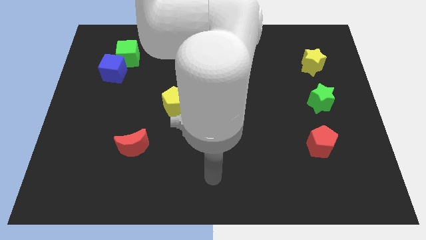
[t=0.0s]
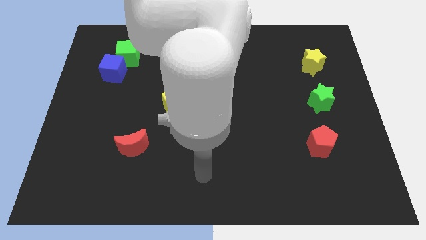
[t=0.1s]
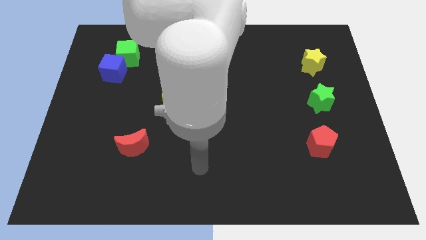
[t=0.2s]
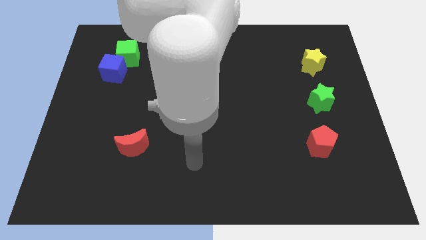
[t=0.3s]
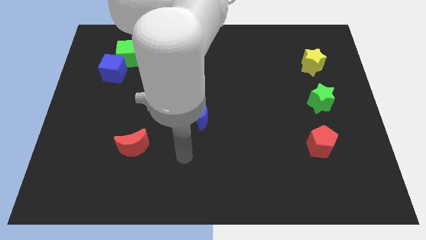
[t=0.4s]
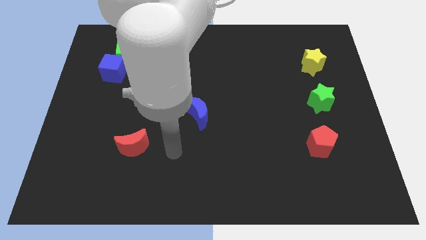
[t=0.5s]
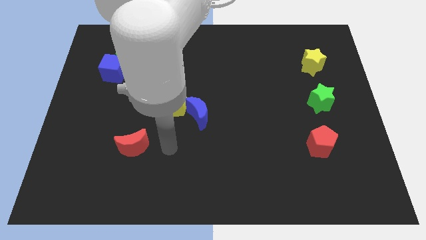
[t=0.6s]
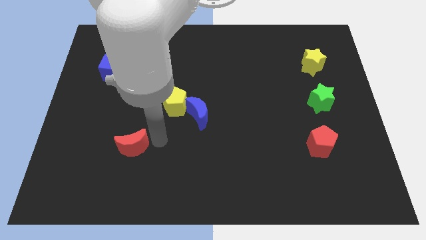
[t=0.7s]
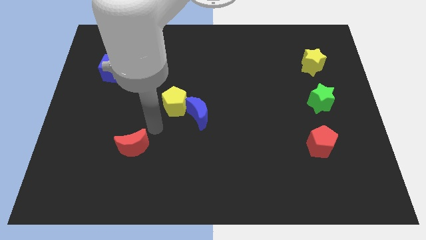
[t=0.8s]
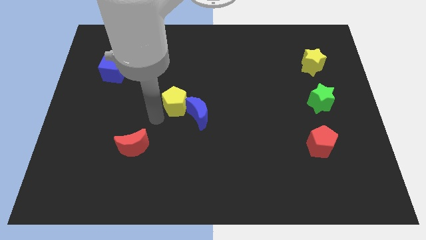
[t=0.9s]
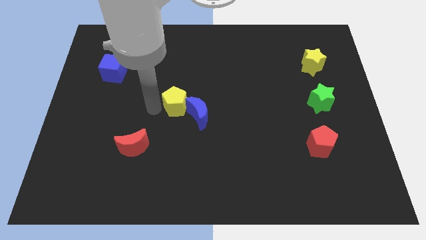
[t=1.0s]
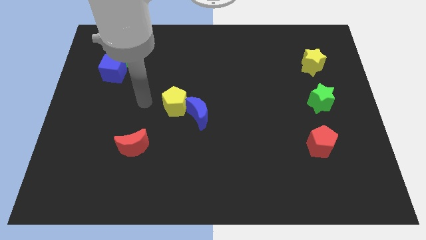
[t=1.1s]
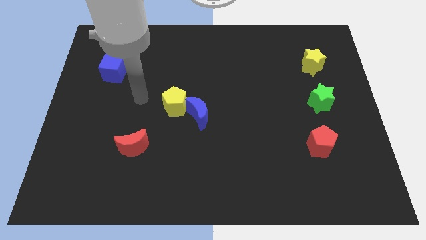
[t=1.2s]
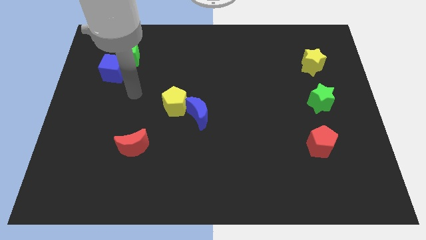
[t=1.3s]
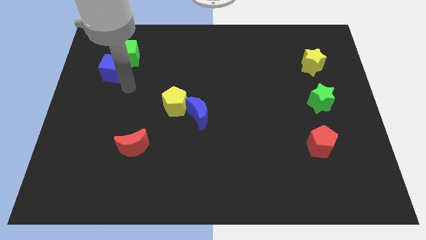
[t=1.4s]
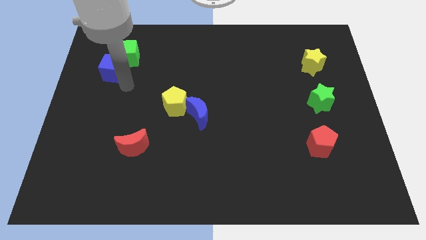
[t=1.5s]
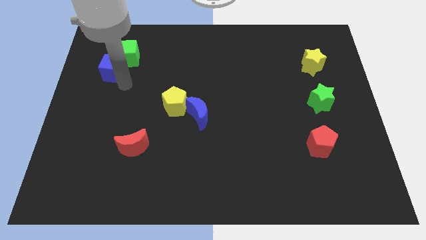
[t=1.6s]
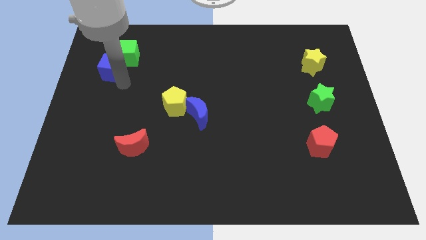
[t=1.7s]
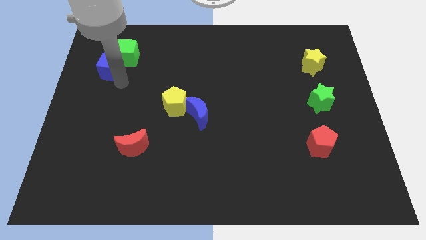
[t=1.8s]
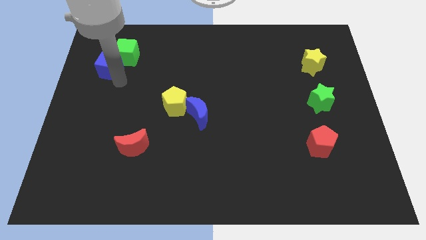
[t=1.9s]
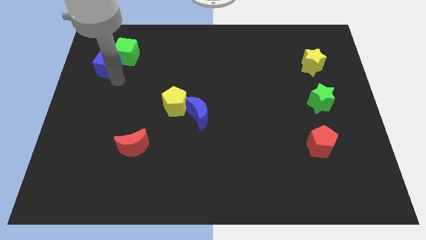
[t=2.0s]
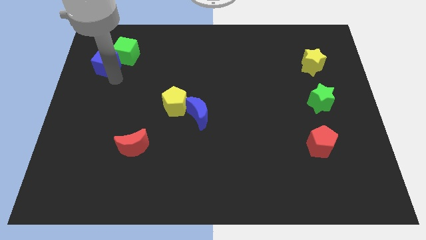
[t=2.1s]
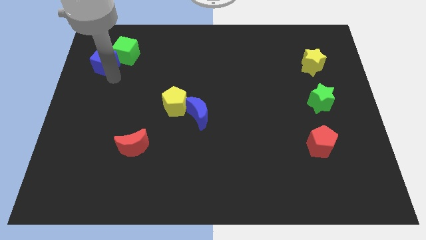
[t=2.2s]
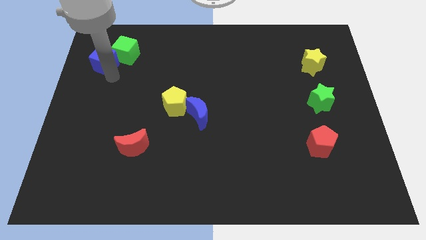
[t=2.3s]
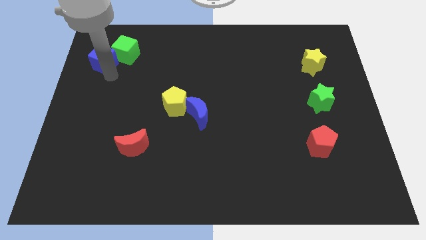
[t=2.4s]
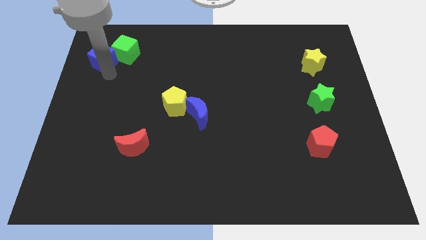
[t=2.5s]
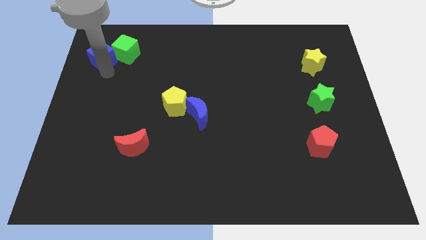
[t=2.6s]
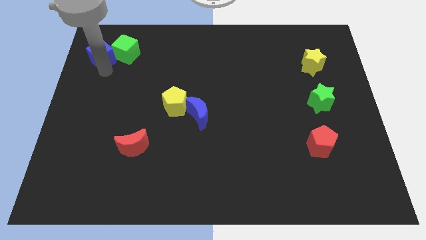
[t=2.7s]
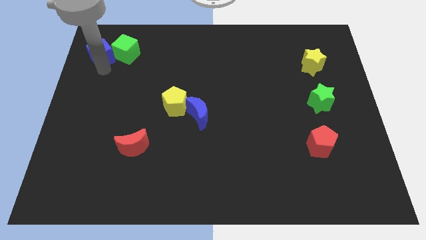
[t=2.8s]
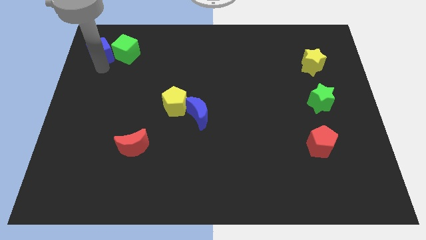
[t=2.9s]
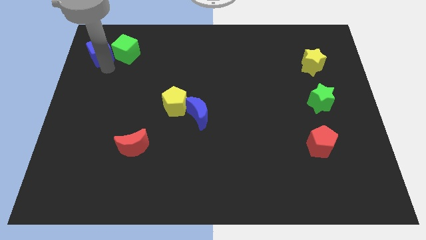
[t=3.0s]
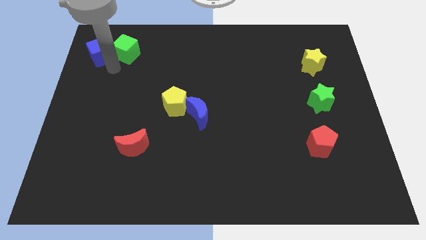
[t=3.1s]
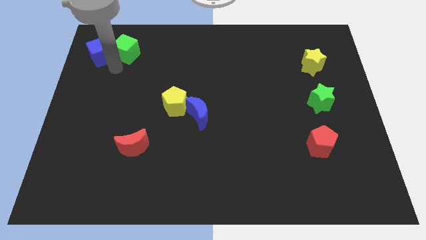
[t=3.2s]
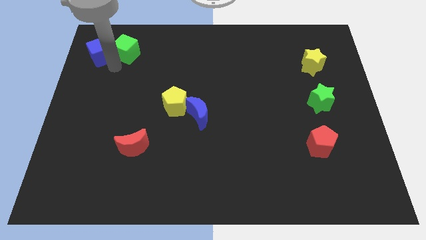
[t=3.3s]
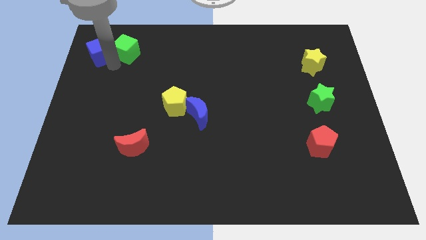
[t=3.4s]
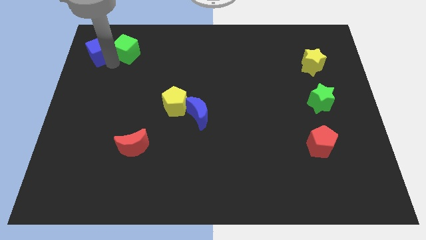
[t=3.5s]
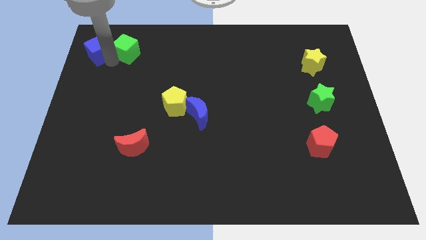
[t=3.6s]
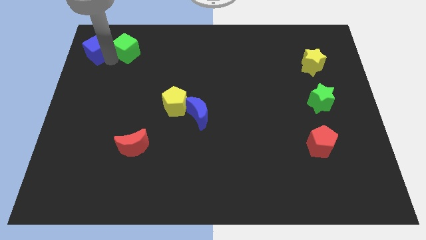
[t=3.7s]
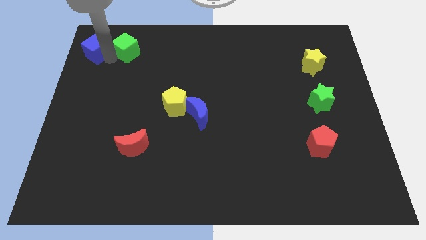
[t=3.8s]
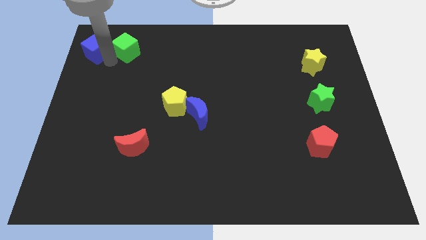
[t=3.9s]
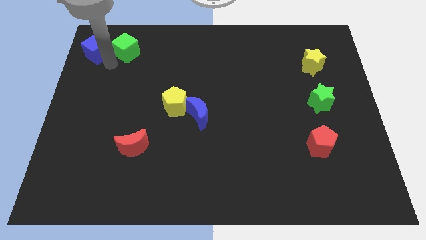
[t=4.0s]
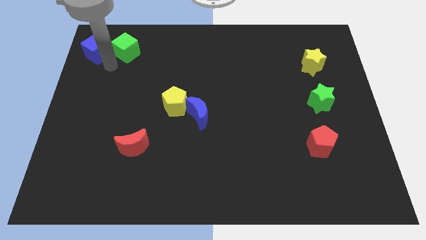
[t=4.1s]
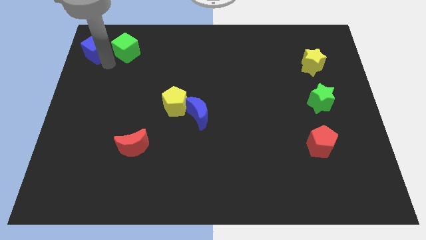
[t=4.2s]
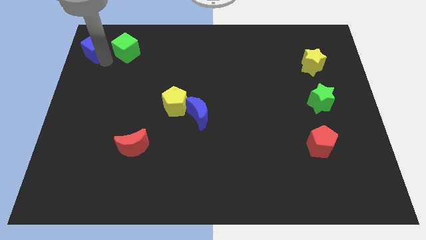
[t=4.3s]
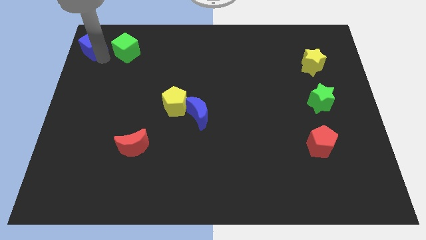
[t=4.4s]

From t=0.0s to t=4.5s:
push the blue cube to the top left

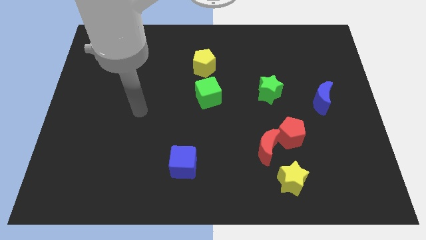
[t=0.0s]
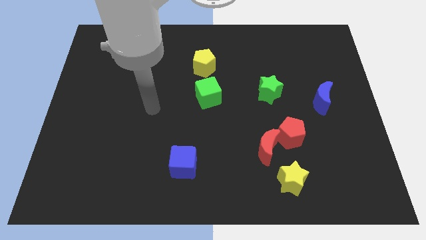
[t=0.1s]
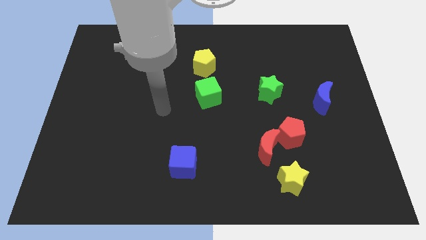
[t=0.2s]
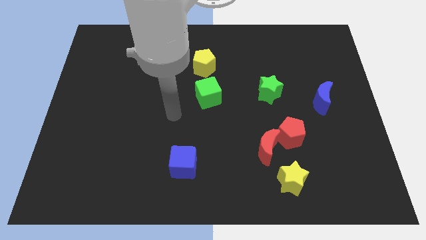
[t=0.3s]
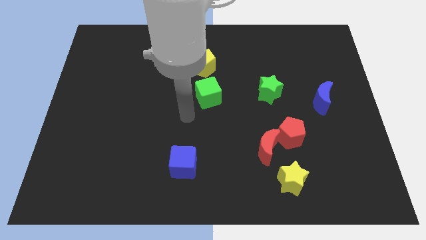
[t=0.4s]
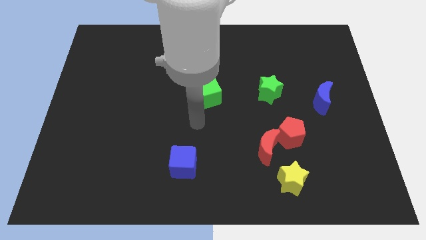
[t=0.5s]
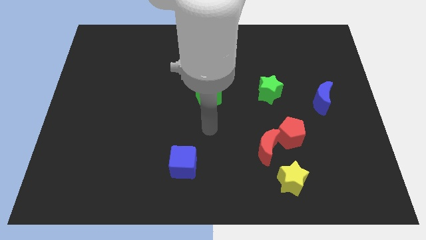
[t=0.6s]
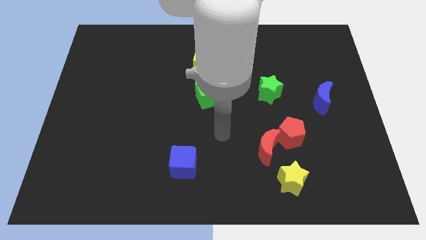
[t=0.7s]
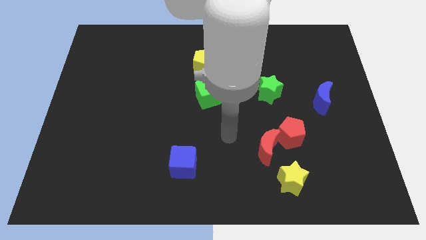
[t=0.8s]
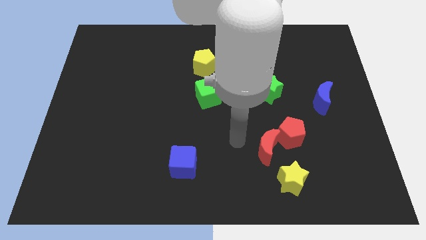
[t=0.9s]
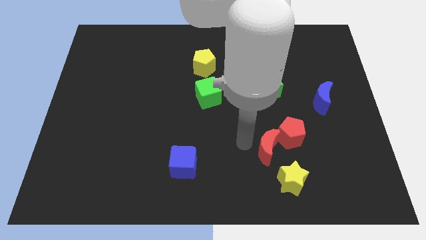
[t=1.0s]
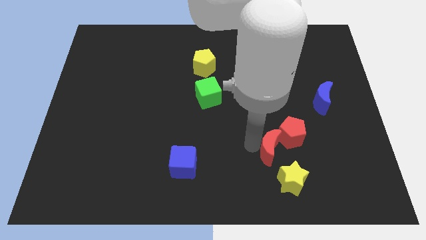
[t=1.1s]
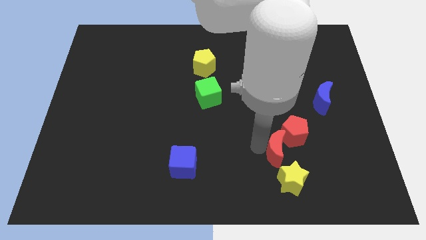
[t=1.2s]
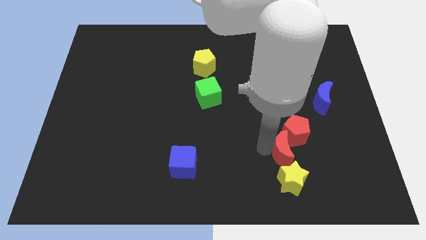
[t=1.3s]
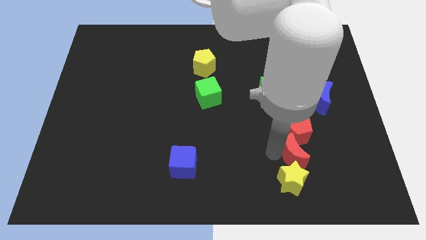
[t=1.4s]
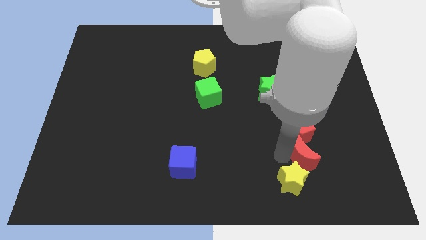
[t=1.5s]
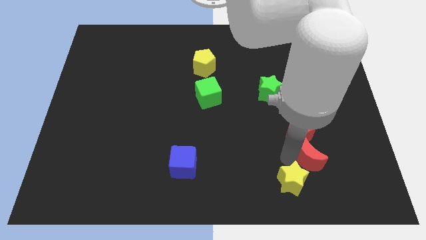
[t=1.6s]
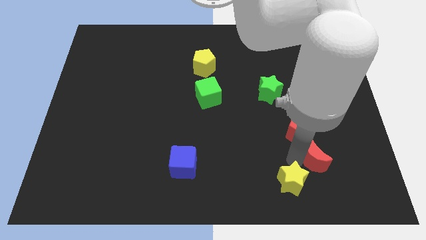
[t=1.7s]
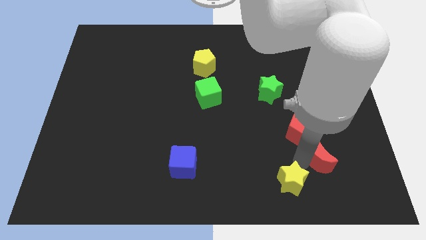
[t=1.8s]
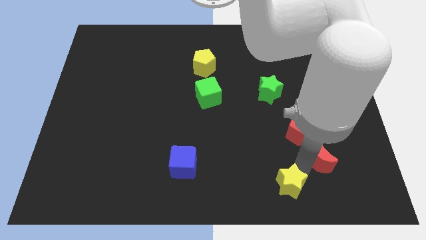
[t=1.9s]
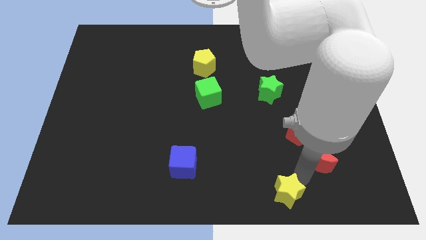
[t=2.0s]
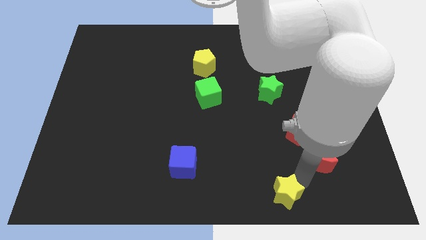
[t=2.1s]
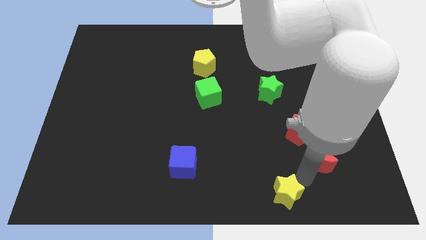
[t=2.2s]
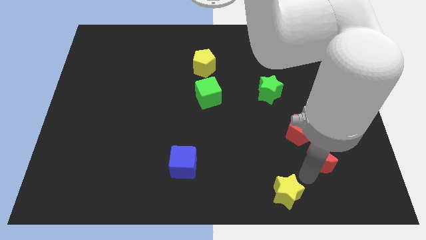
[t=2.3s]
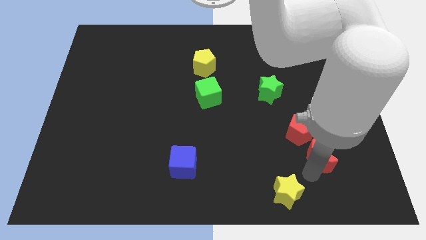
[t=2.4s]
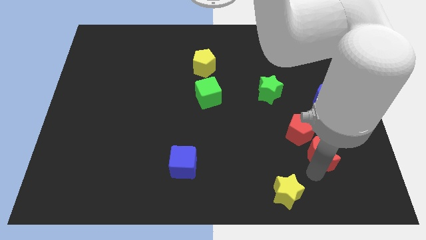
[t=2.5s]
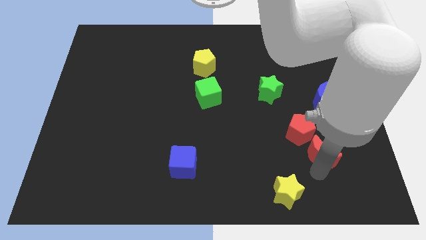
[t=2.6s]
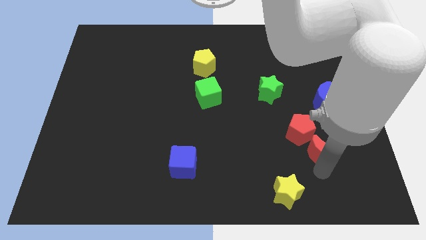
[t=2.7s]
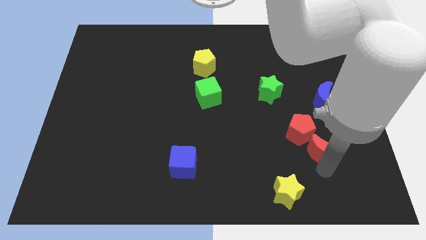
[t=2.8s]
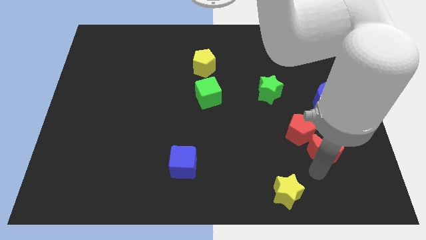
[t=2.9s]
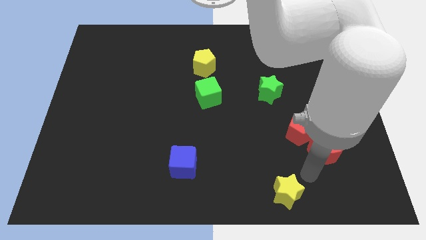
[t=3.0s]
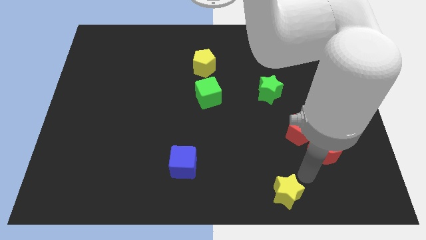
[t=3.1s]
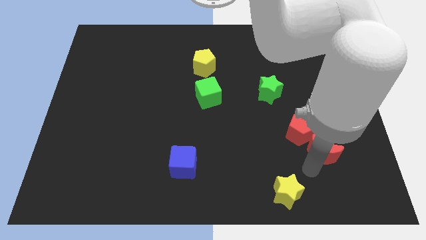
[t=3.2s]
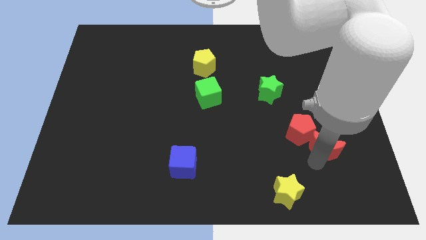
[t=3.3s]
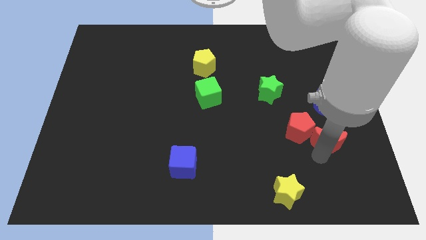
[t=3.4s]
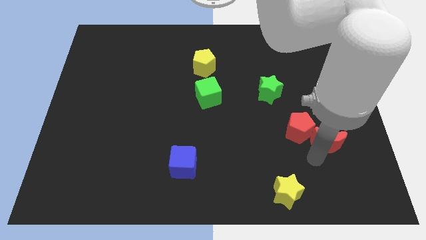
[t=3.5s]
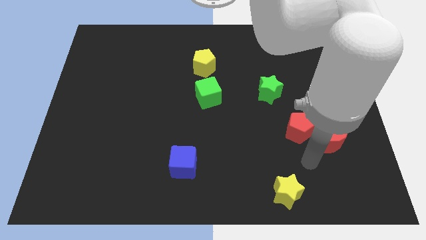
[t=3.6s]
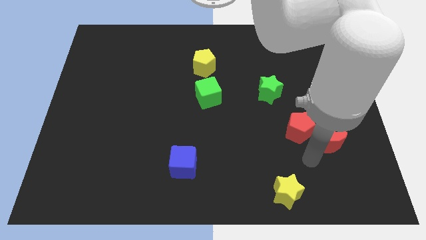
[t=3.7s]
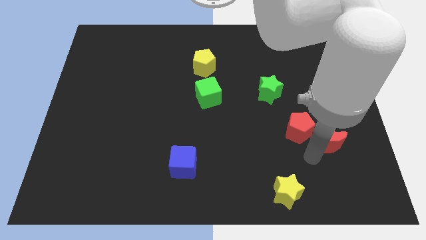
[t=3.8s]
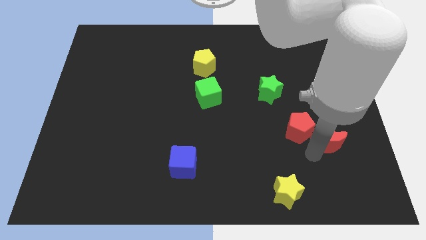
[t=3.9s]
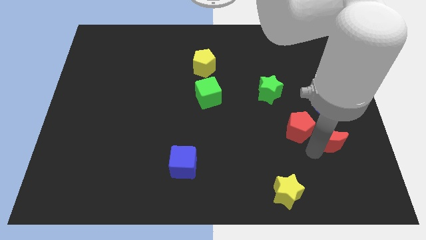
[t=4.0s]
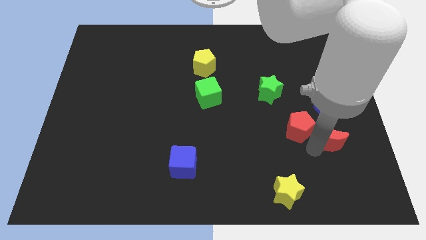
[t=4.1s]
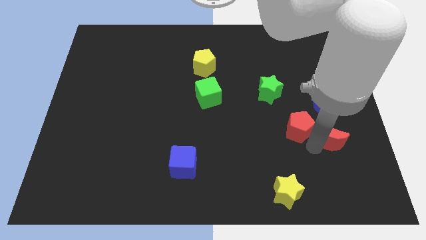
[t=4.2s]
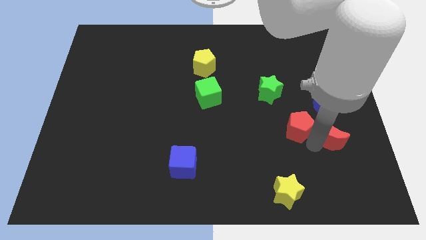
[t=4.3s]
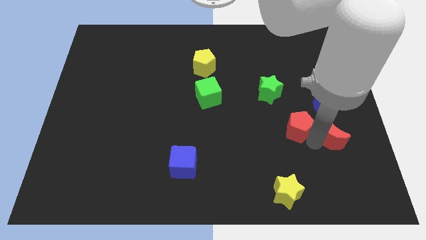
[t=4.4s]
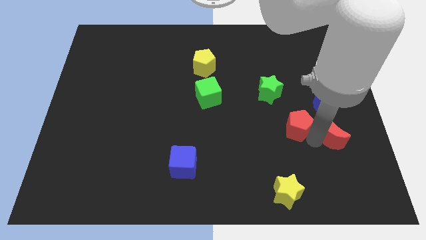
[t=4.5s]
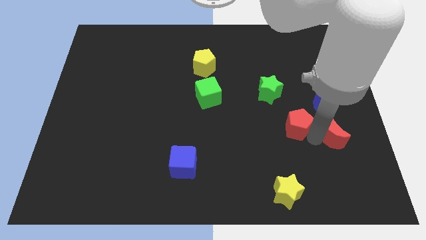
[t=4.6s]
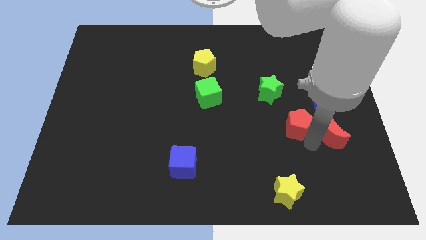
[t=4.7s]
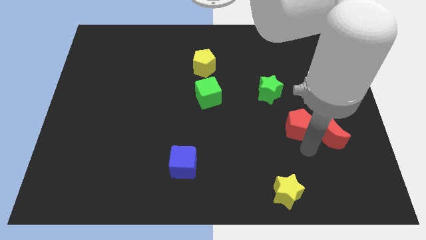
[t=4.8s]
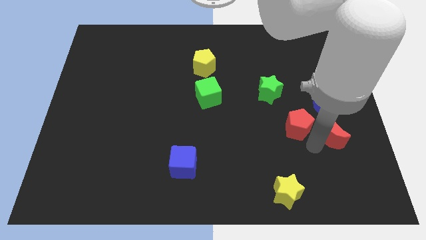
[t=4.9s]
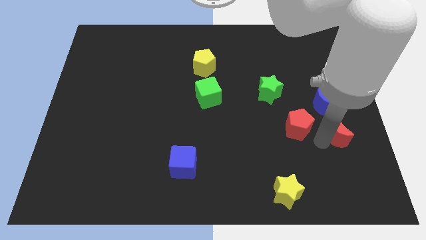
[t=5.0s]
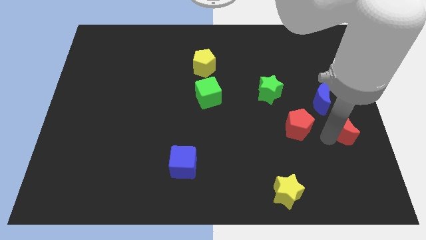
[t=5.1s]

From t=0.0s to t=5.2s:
put the red moon to the right side of the board
